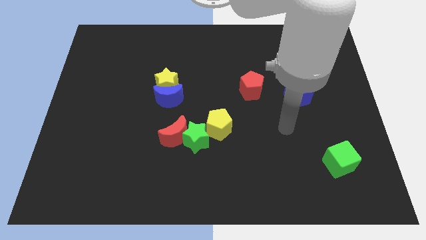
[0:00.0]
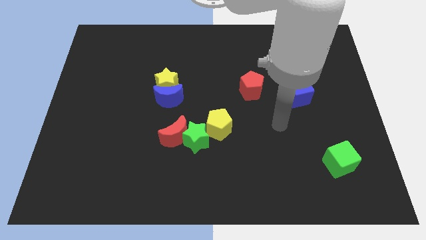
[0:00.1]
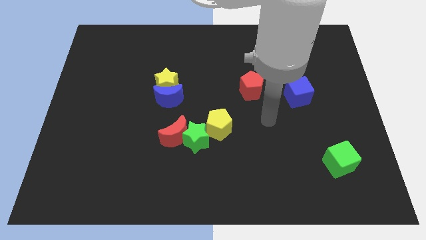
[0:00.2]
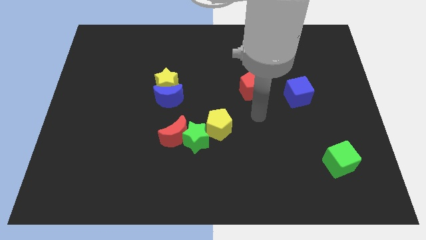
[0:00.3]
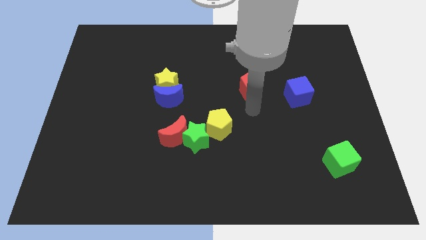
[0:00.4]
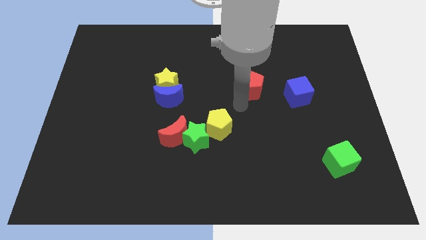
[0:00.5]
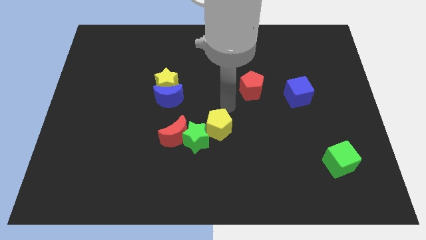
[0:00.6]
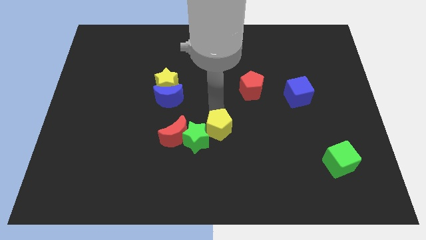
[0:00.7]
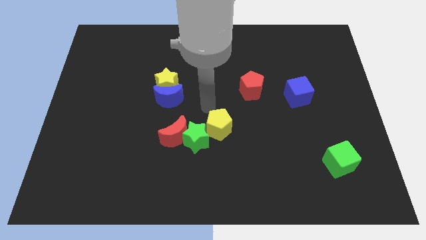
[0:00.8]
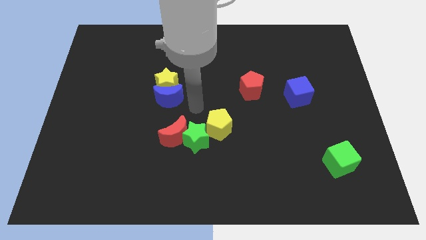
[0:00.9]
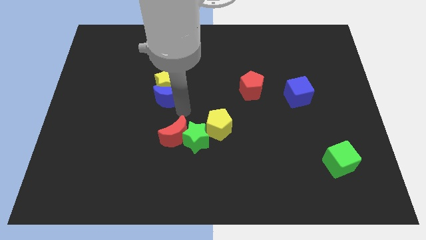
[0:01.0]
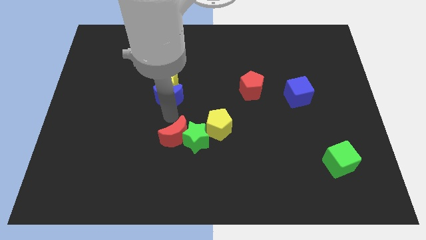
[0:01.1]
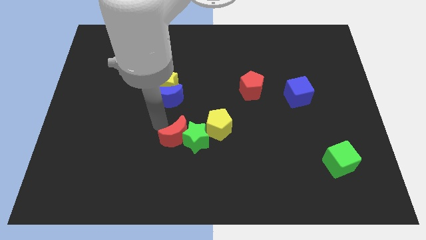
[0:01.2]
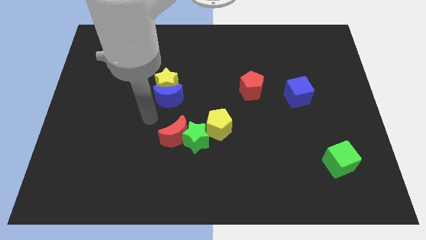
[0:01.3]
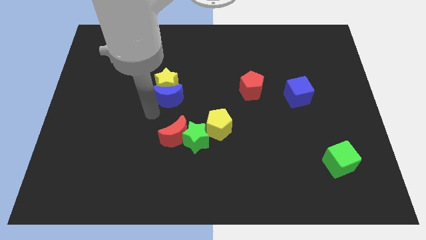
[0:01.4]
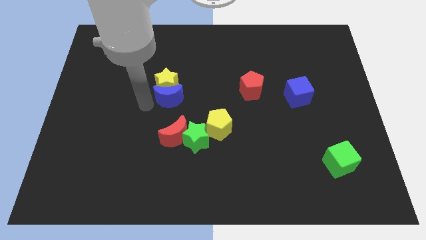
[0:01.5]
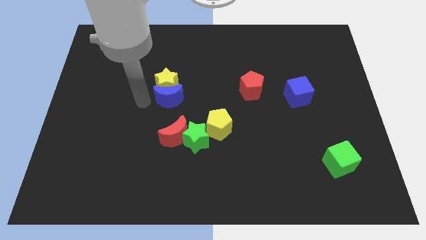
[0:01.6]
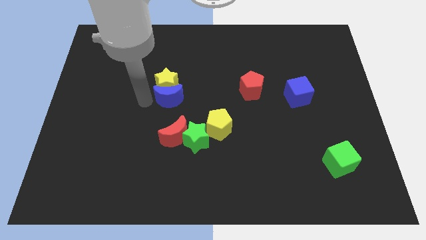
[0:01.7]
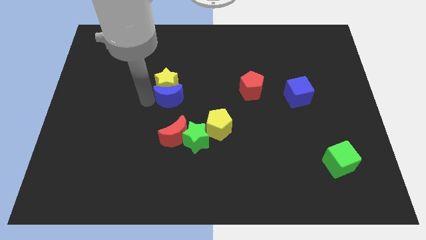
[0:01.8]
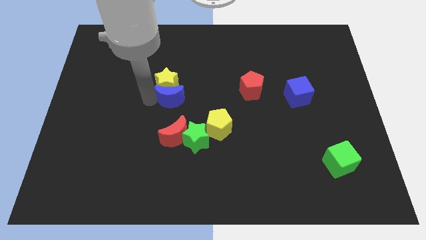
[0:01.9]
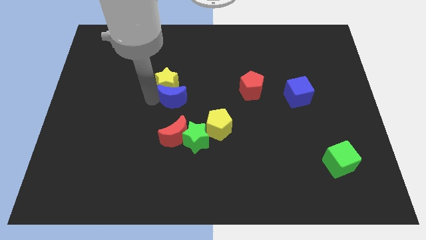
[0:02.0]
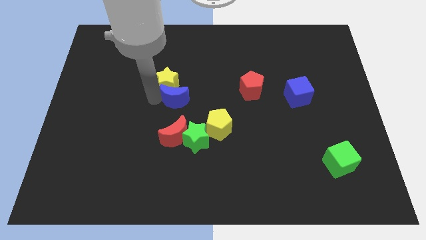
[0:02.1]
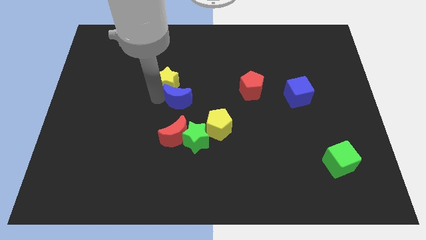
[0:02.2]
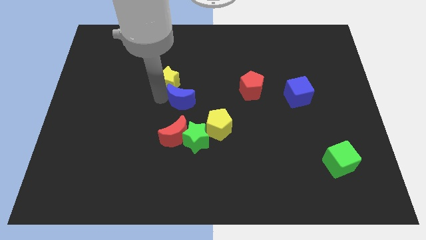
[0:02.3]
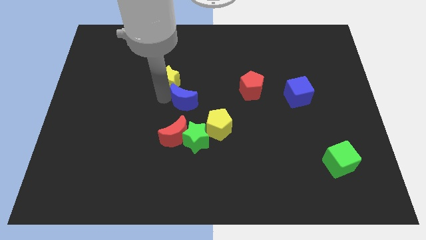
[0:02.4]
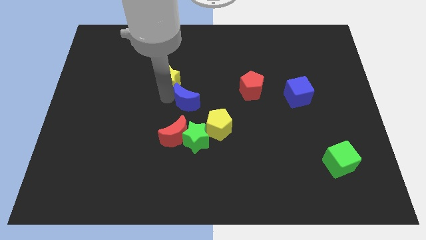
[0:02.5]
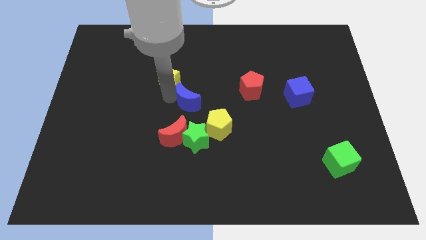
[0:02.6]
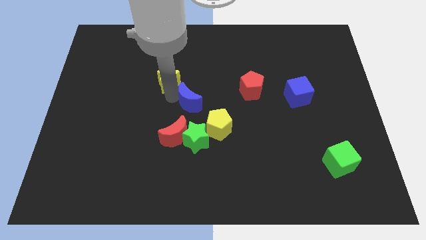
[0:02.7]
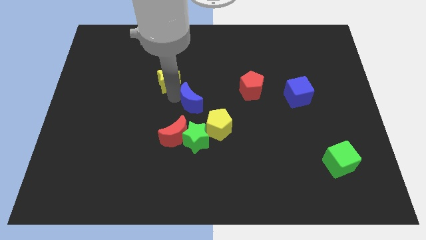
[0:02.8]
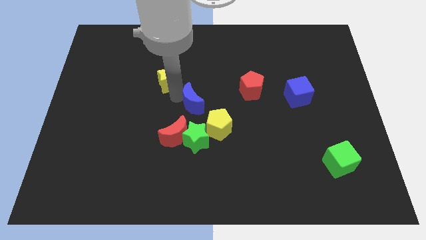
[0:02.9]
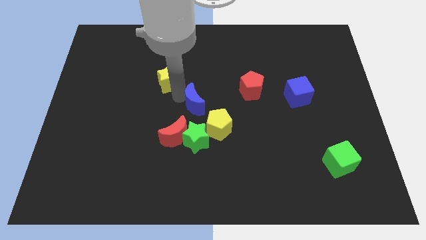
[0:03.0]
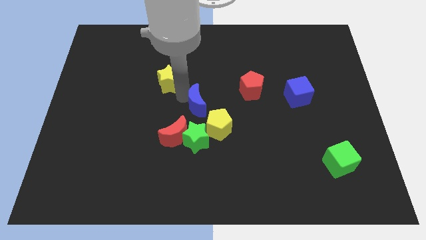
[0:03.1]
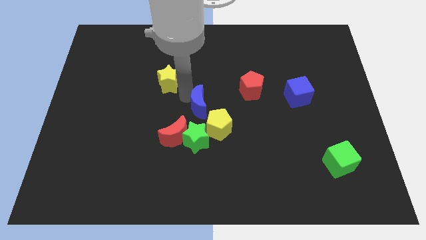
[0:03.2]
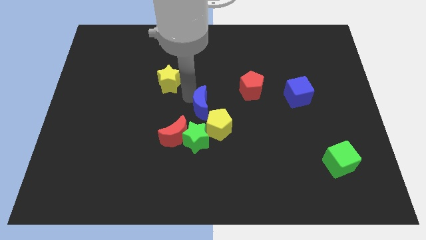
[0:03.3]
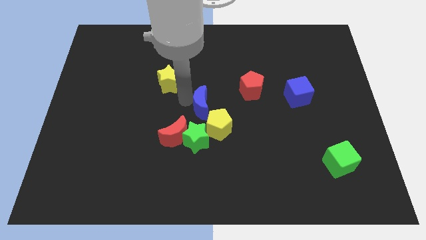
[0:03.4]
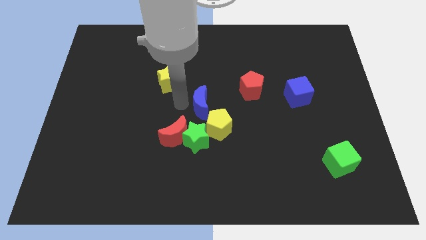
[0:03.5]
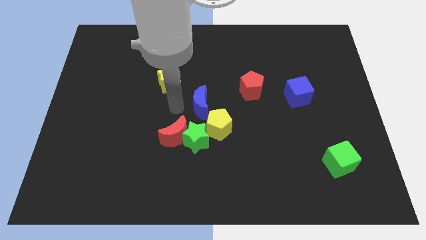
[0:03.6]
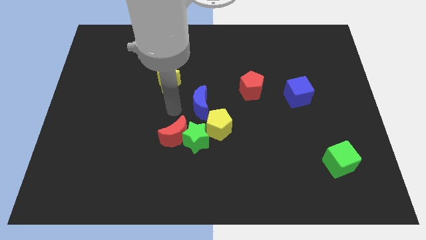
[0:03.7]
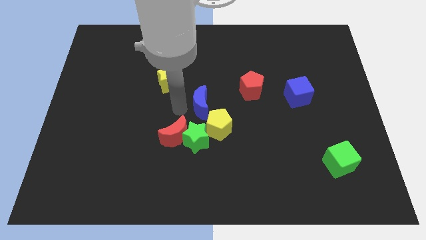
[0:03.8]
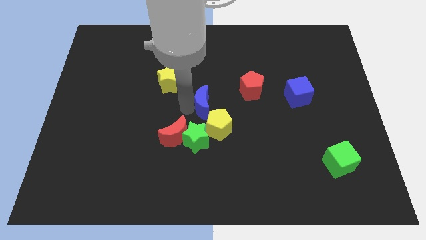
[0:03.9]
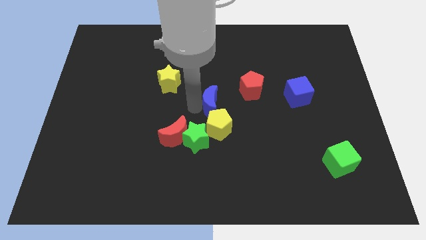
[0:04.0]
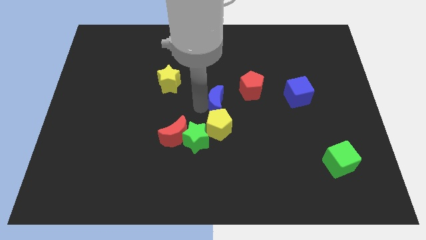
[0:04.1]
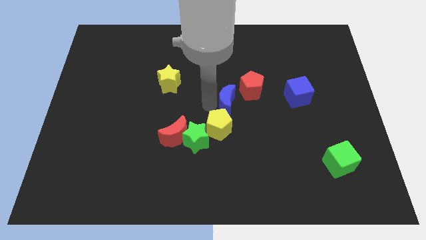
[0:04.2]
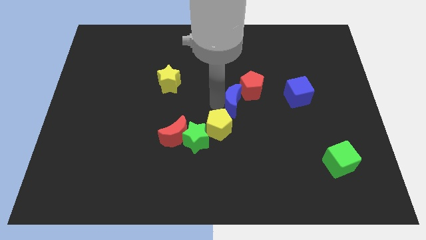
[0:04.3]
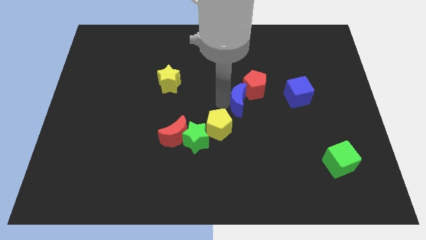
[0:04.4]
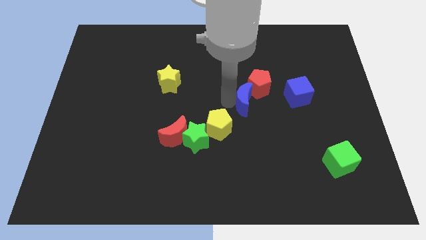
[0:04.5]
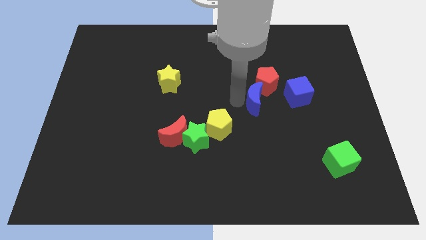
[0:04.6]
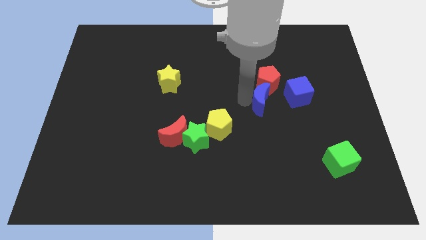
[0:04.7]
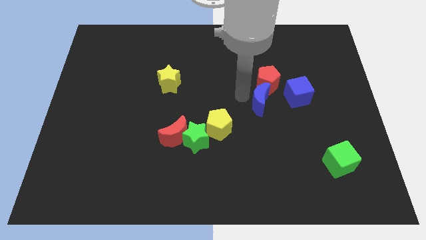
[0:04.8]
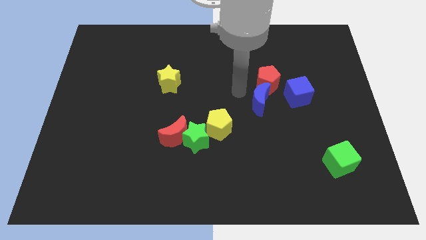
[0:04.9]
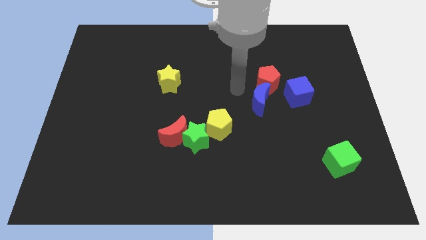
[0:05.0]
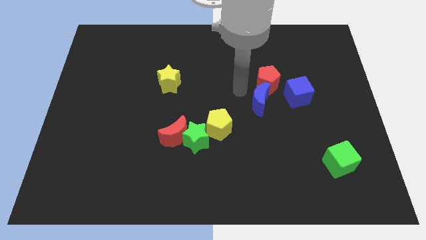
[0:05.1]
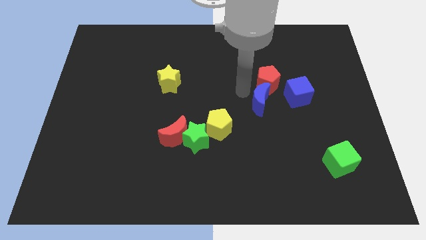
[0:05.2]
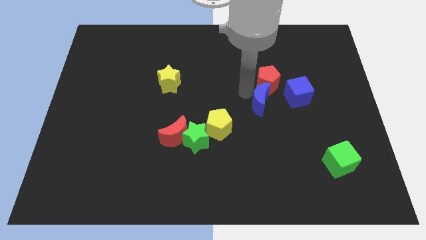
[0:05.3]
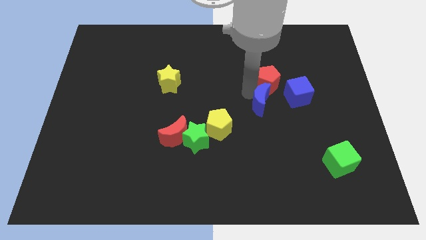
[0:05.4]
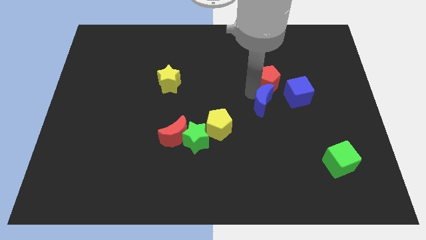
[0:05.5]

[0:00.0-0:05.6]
push the blue moon to the bottom left side of the blue cube

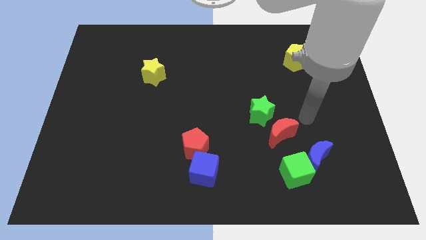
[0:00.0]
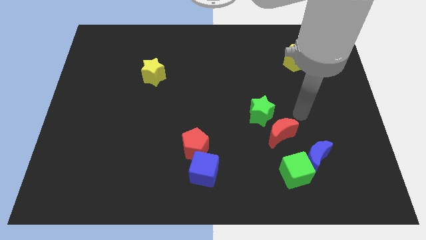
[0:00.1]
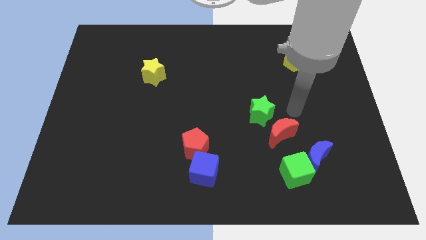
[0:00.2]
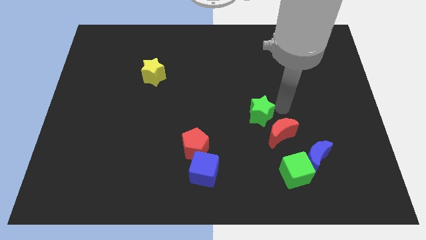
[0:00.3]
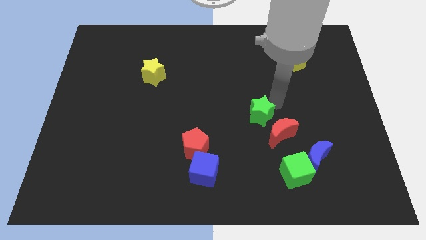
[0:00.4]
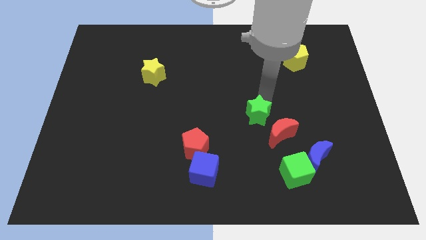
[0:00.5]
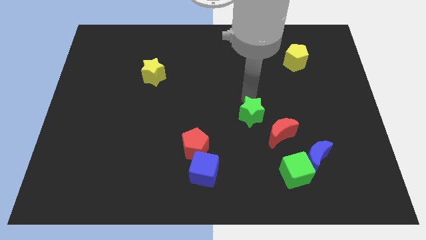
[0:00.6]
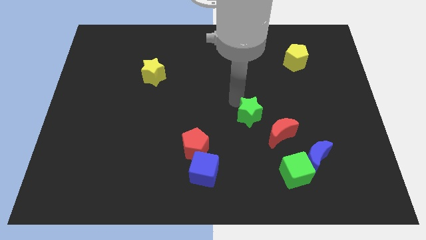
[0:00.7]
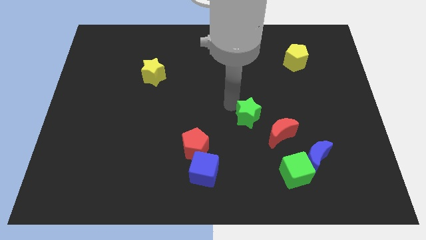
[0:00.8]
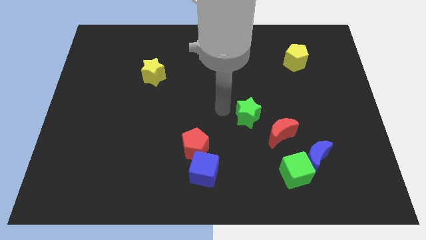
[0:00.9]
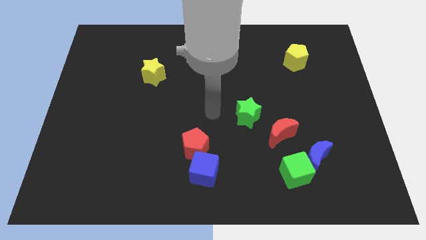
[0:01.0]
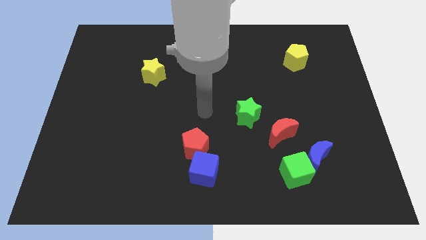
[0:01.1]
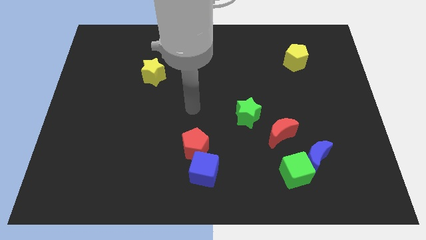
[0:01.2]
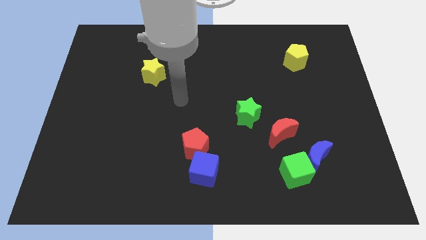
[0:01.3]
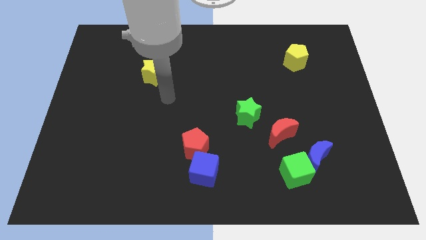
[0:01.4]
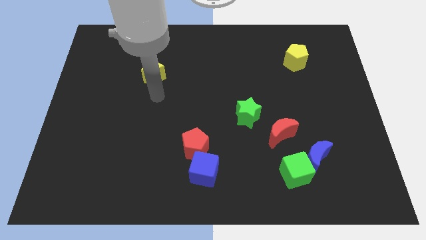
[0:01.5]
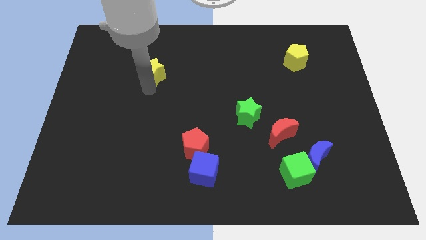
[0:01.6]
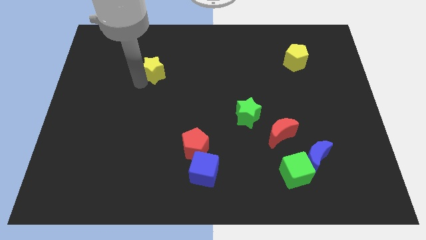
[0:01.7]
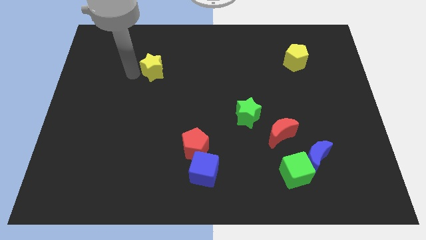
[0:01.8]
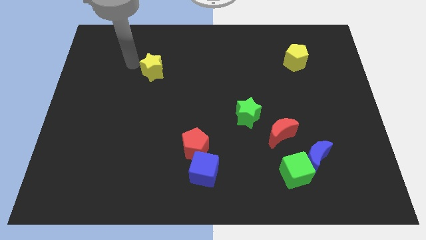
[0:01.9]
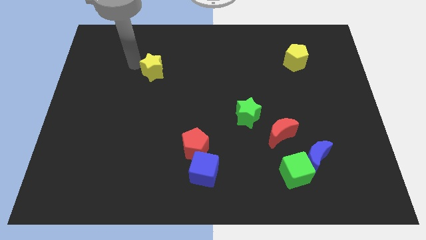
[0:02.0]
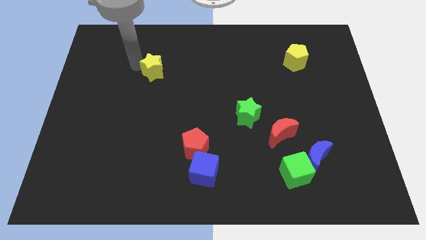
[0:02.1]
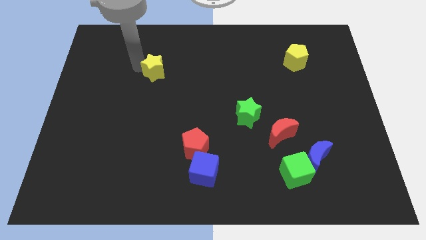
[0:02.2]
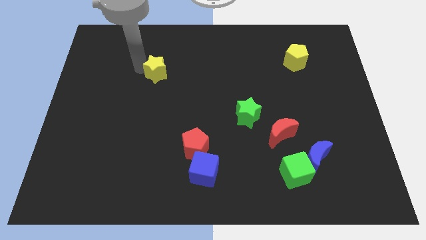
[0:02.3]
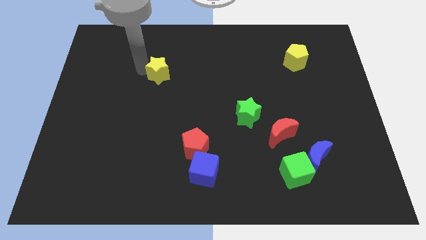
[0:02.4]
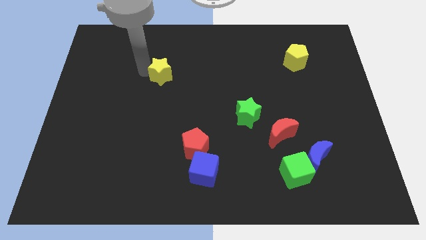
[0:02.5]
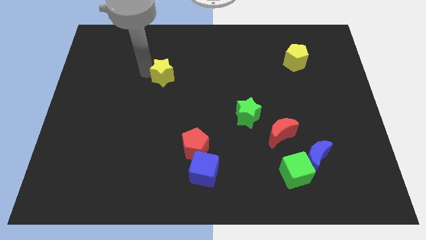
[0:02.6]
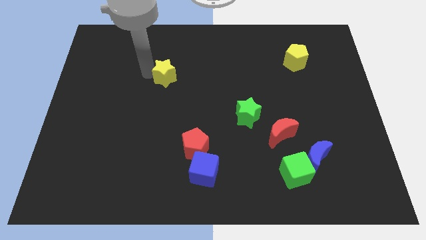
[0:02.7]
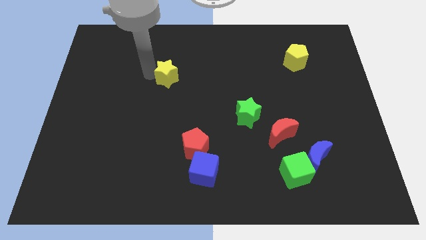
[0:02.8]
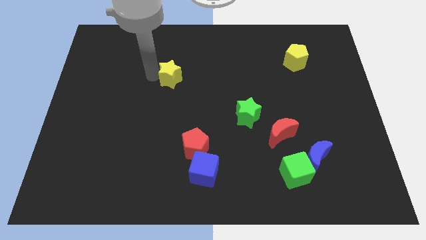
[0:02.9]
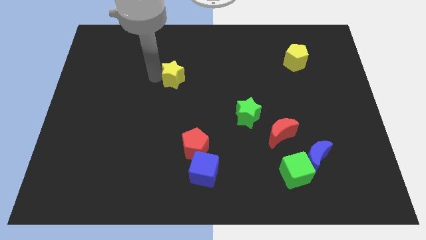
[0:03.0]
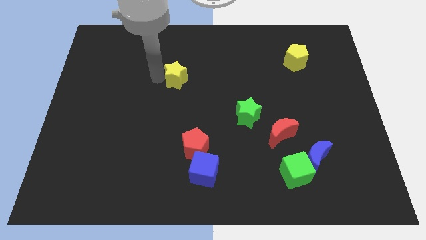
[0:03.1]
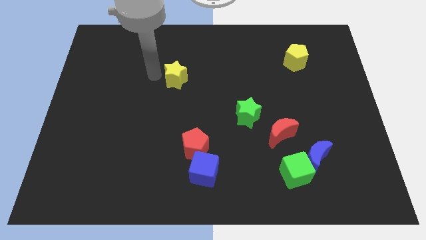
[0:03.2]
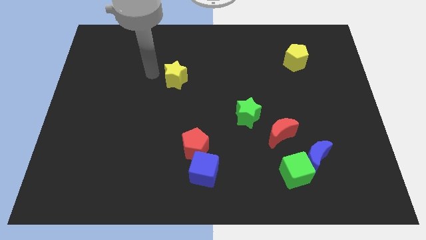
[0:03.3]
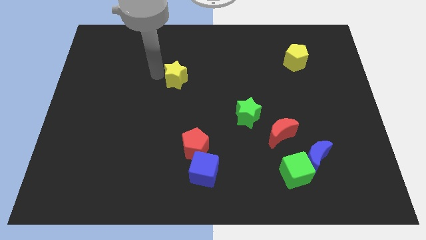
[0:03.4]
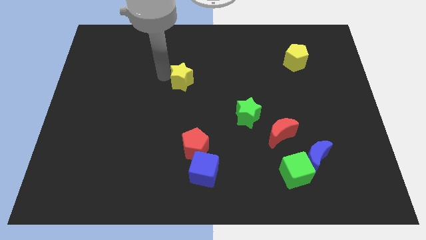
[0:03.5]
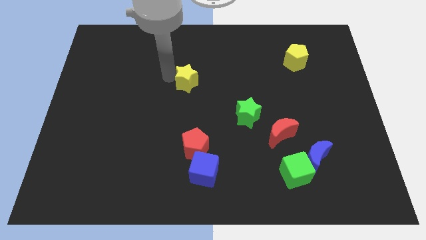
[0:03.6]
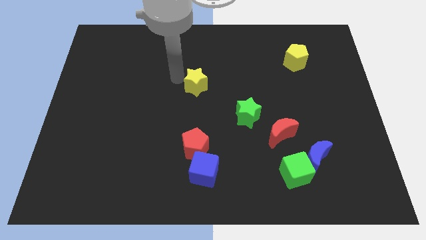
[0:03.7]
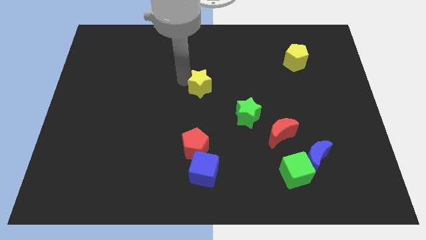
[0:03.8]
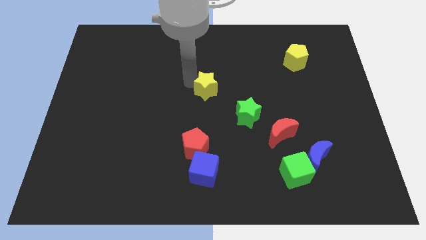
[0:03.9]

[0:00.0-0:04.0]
slide the yellow star to the top left side of the green star
